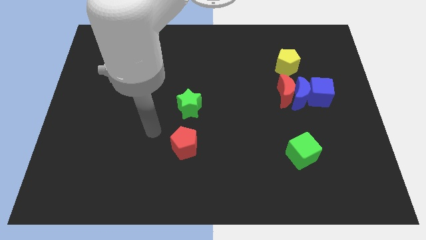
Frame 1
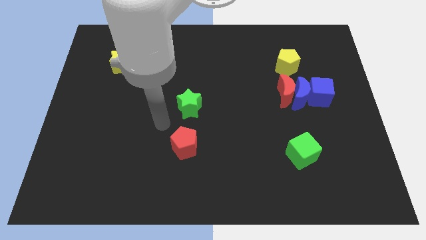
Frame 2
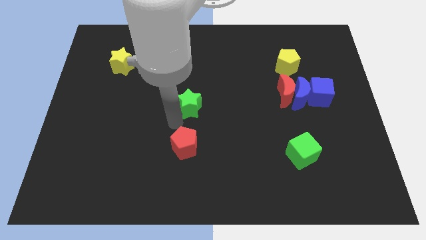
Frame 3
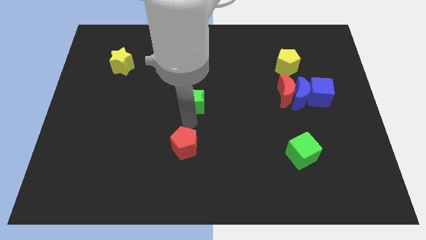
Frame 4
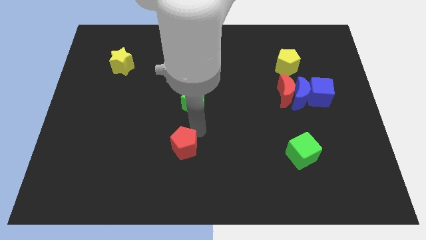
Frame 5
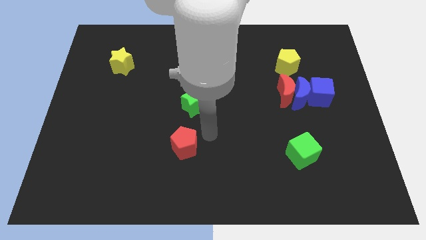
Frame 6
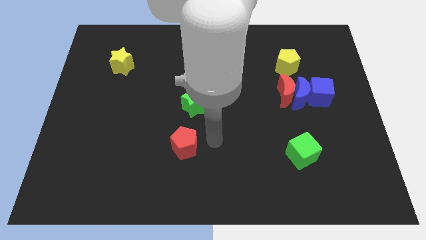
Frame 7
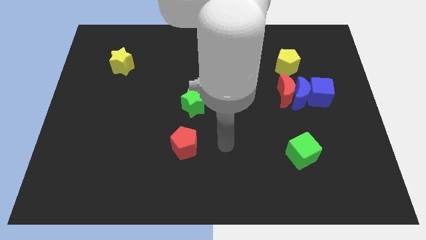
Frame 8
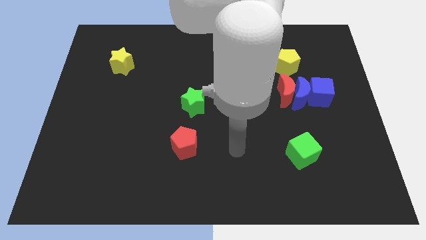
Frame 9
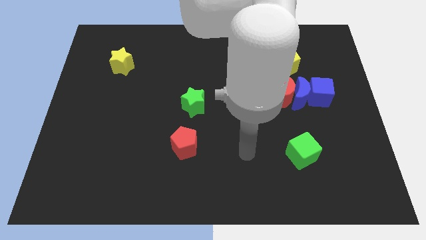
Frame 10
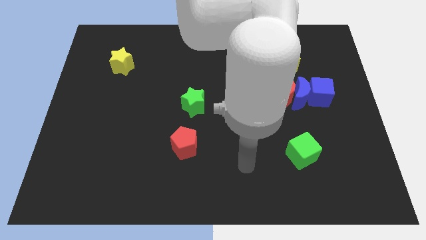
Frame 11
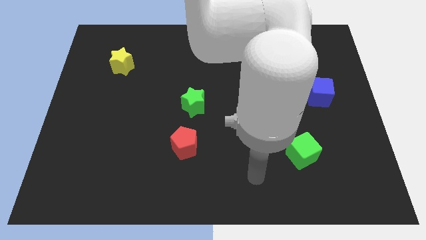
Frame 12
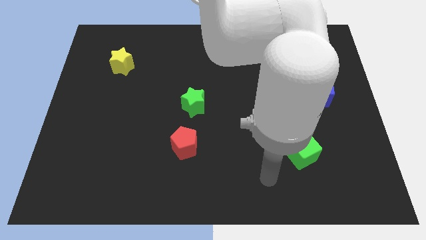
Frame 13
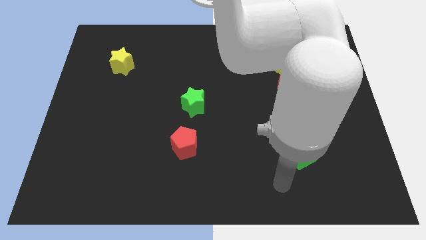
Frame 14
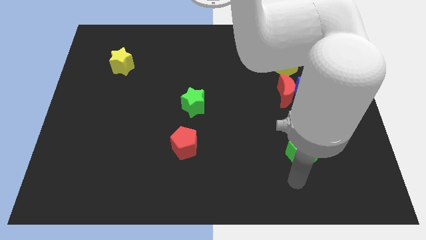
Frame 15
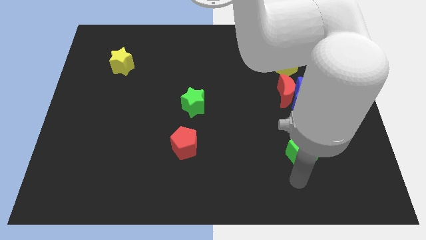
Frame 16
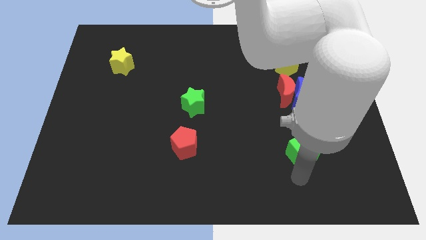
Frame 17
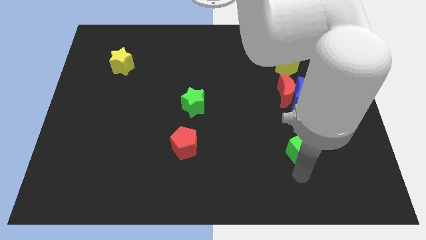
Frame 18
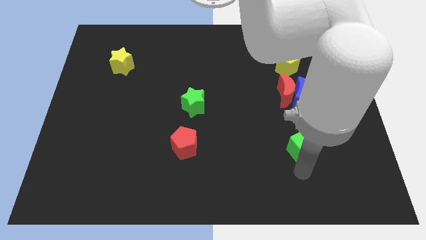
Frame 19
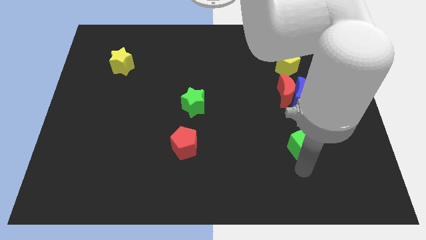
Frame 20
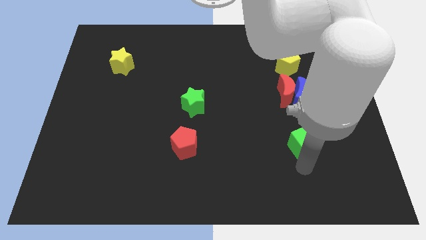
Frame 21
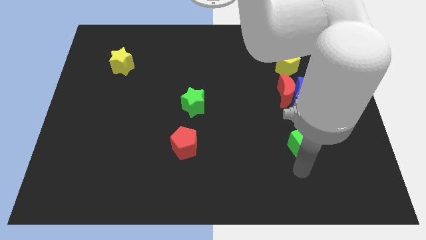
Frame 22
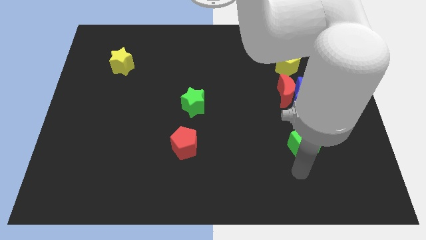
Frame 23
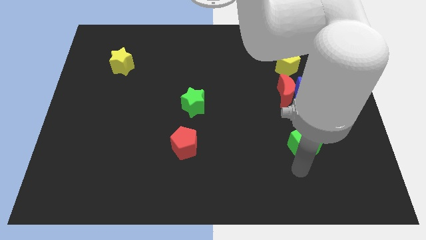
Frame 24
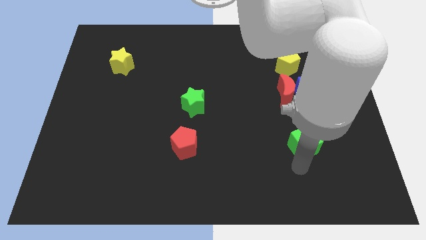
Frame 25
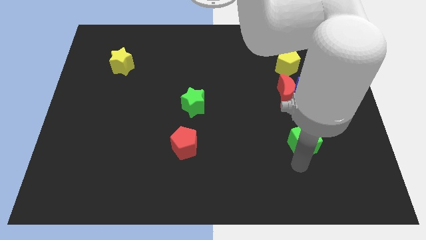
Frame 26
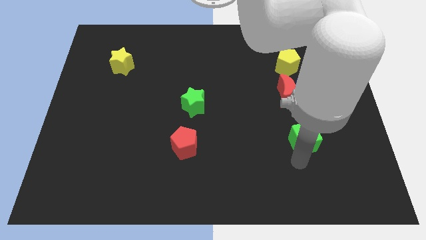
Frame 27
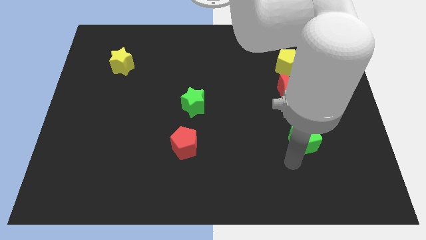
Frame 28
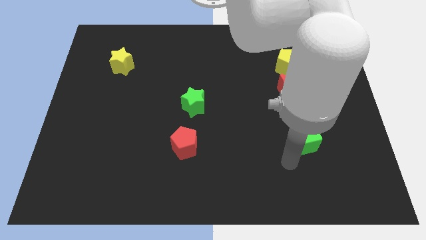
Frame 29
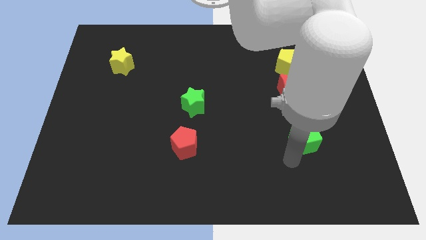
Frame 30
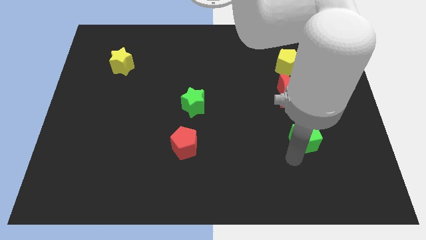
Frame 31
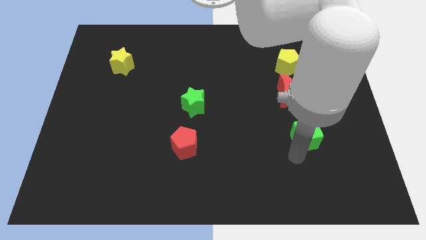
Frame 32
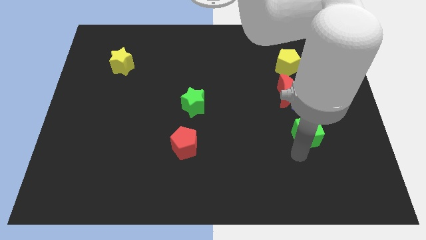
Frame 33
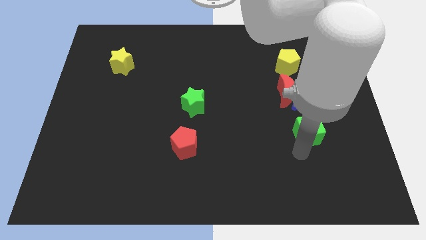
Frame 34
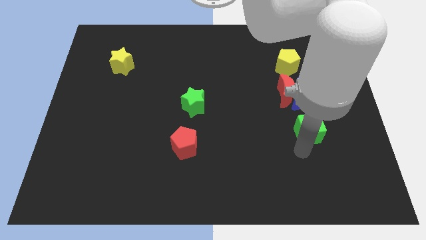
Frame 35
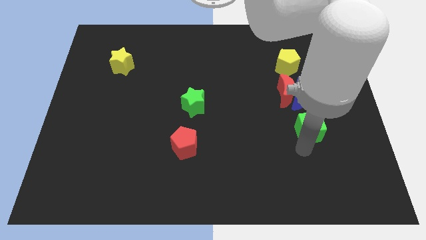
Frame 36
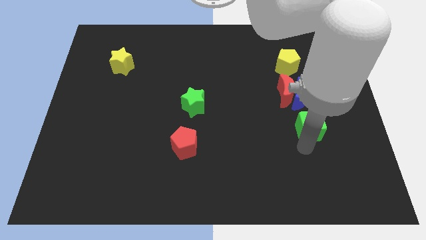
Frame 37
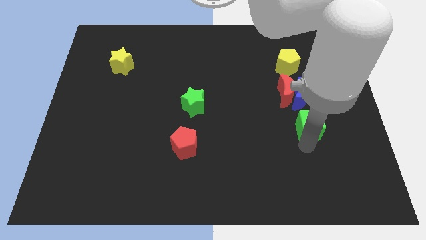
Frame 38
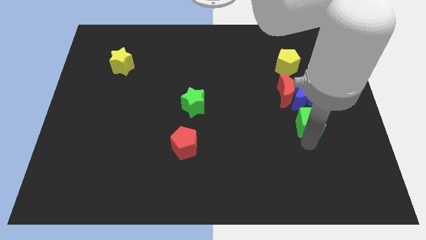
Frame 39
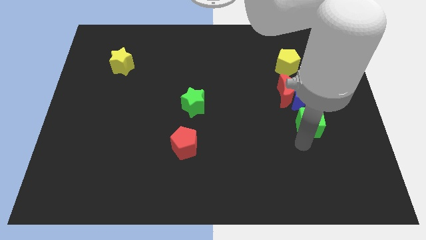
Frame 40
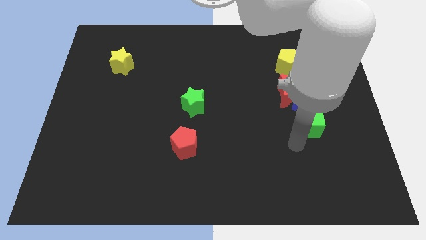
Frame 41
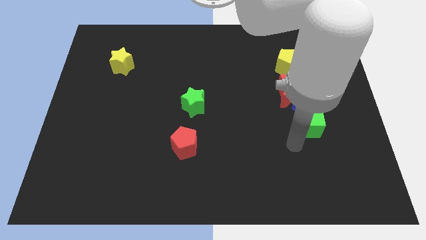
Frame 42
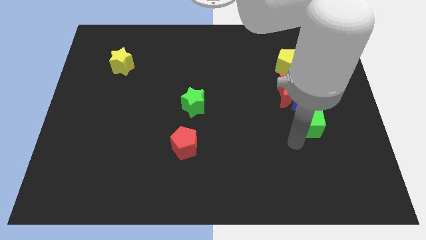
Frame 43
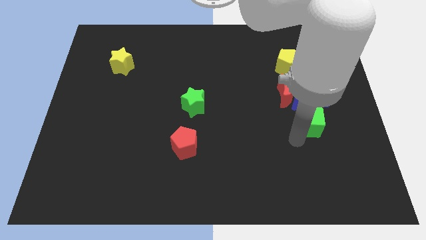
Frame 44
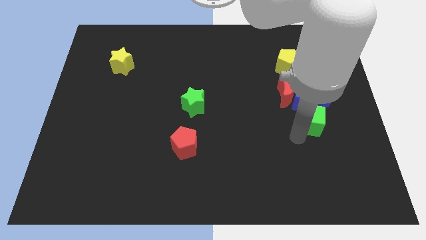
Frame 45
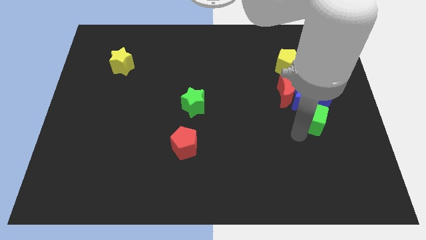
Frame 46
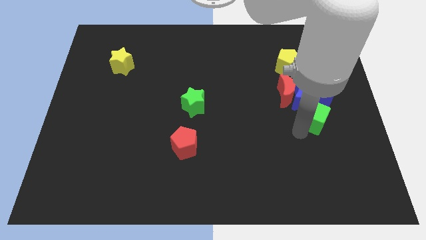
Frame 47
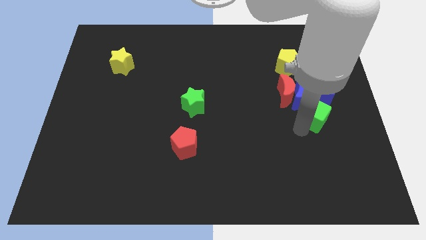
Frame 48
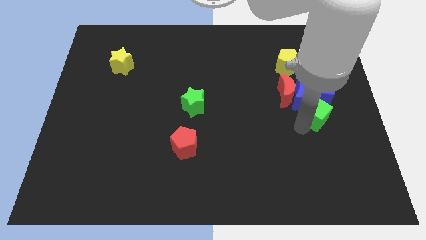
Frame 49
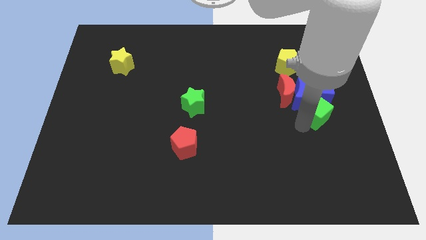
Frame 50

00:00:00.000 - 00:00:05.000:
put the green cube to the blue cube

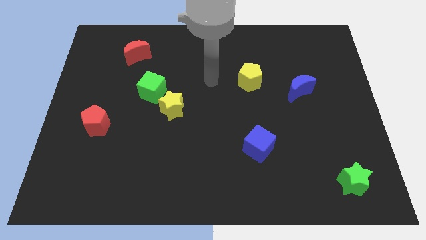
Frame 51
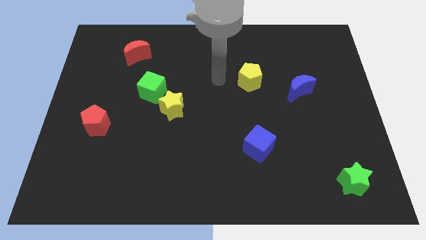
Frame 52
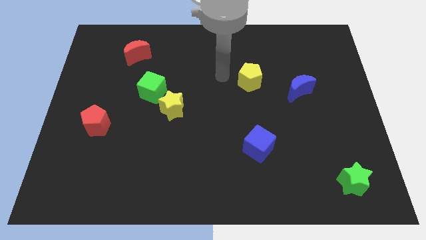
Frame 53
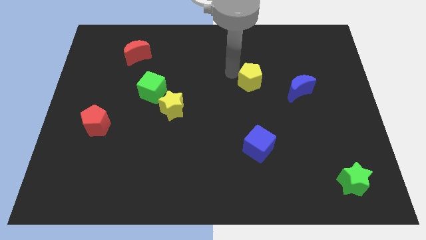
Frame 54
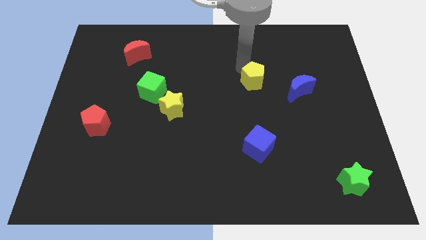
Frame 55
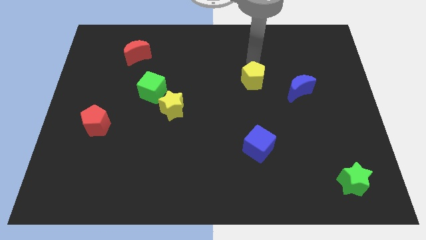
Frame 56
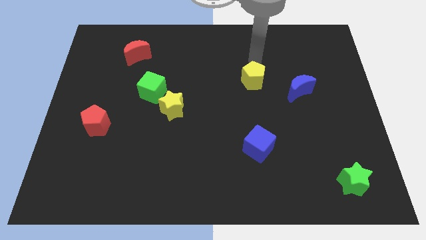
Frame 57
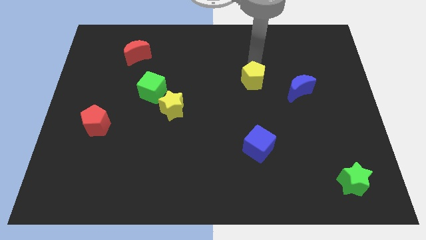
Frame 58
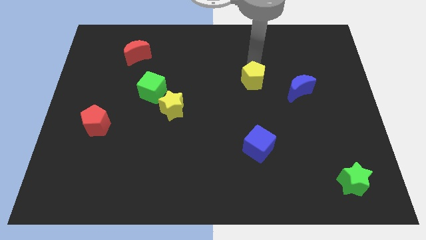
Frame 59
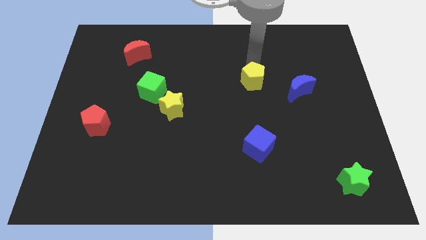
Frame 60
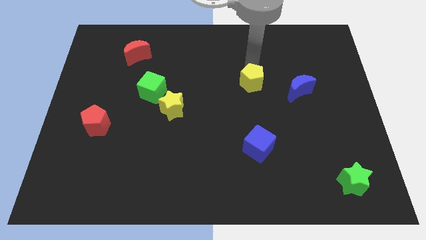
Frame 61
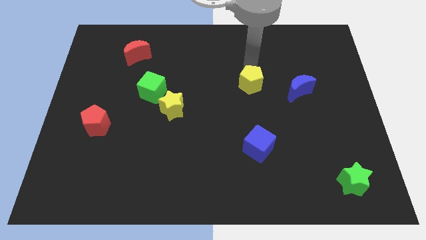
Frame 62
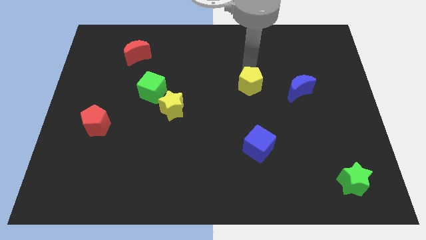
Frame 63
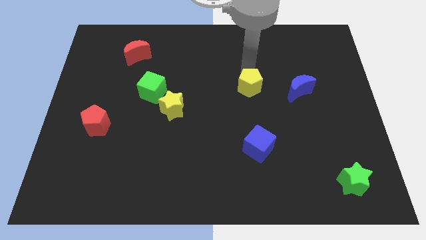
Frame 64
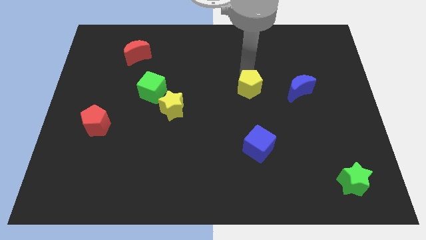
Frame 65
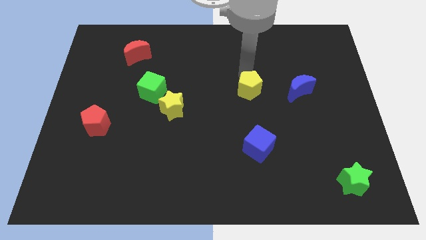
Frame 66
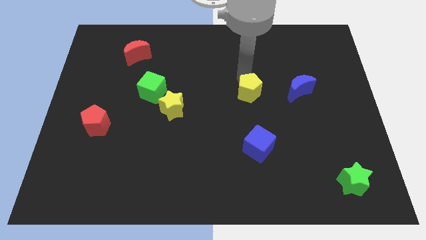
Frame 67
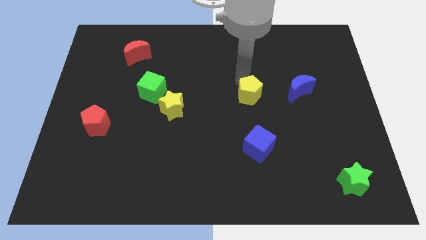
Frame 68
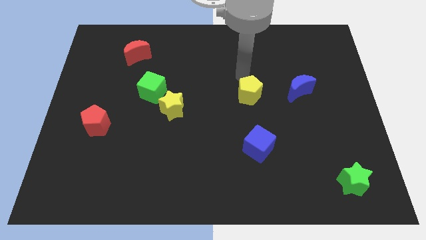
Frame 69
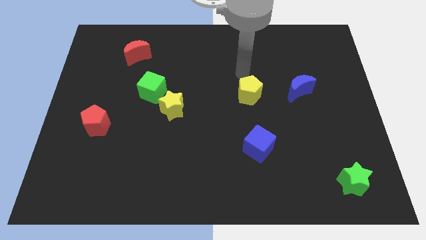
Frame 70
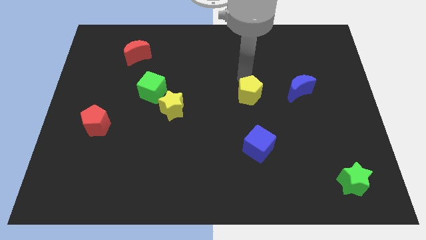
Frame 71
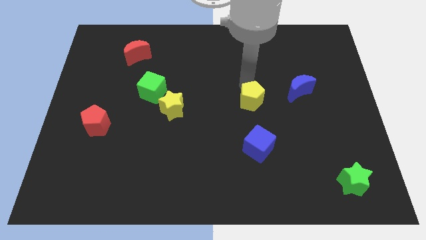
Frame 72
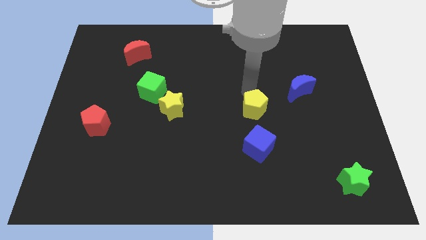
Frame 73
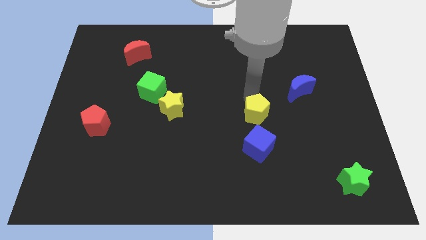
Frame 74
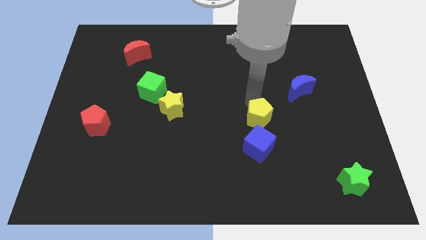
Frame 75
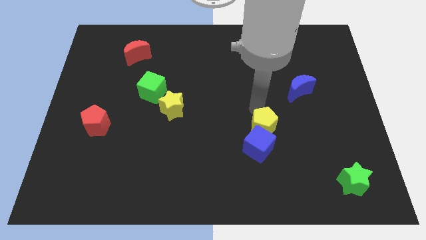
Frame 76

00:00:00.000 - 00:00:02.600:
slide the yellow pentagon towards the blue cube

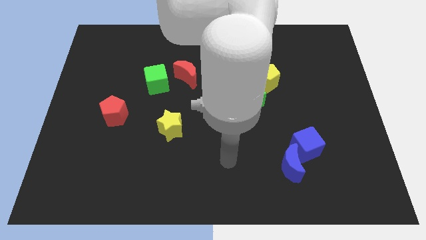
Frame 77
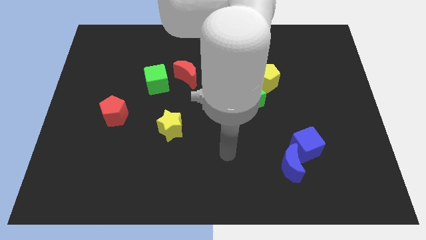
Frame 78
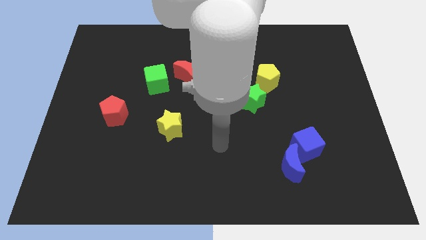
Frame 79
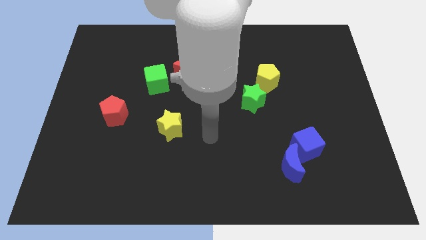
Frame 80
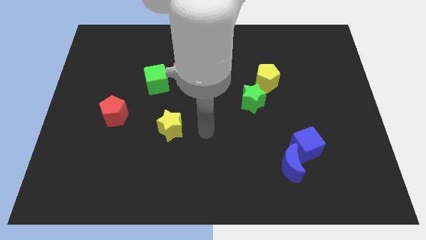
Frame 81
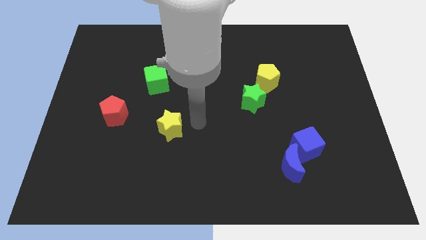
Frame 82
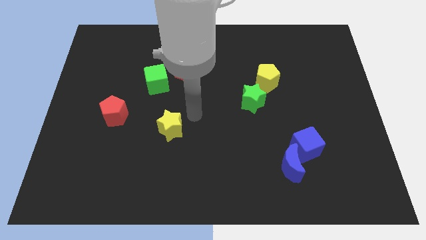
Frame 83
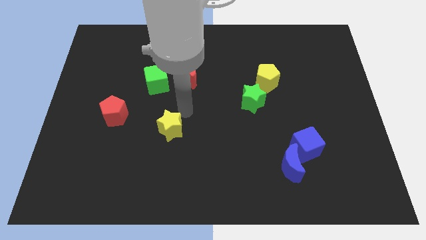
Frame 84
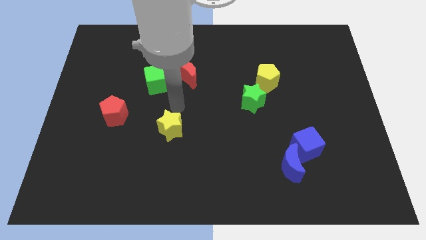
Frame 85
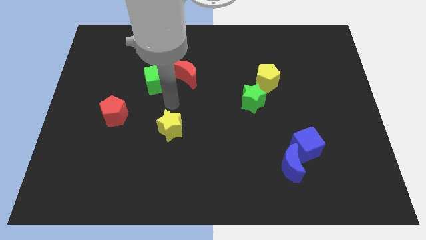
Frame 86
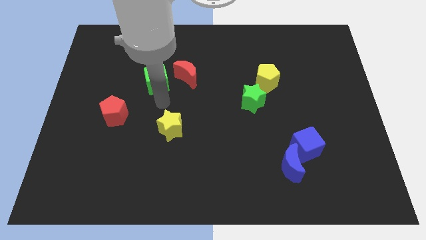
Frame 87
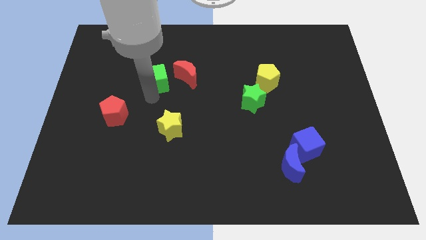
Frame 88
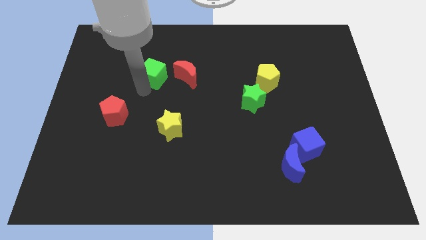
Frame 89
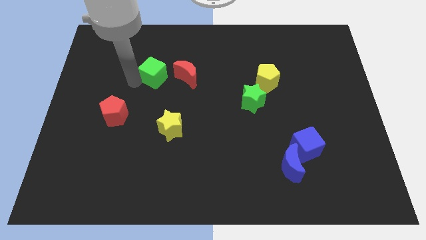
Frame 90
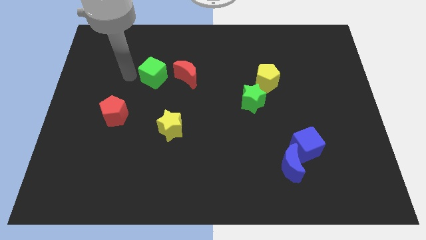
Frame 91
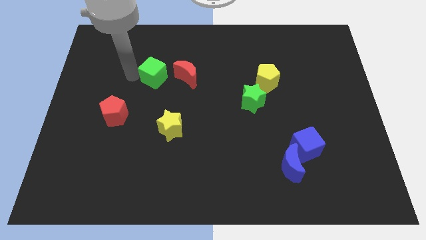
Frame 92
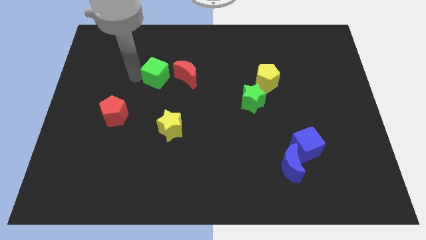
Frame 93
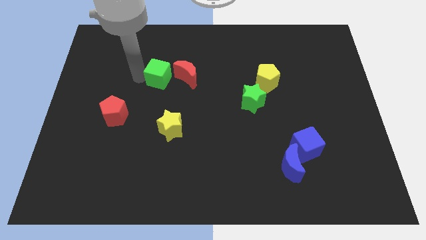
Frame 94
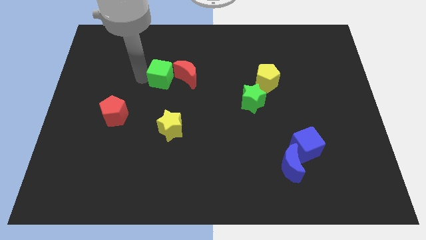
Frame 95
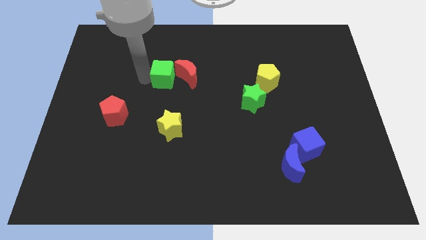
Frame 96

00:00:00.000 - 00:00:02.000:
slide the green cube to the red moon
